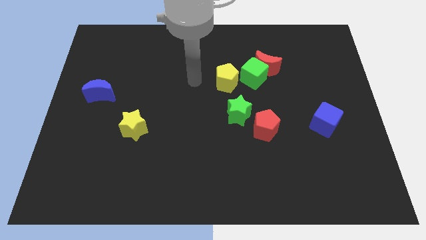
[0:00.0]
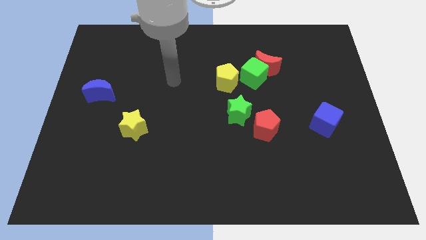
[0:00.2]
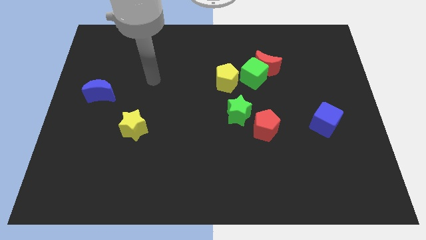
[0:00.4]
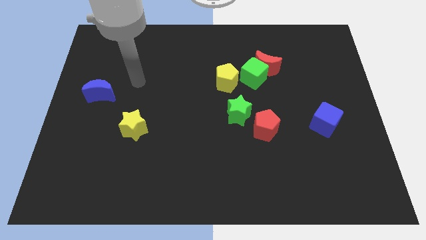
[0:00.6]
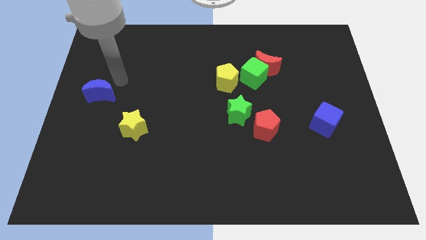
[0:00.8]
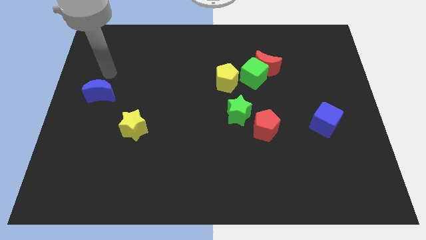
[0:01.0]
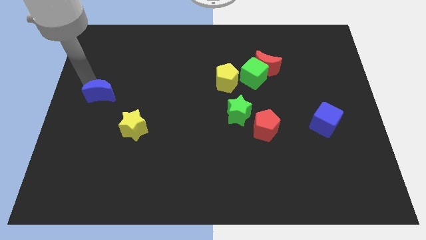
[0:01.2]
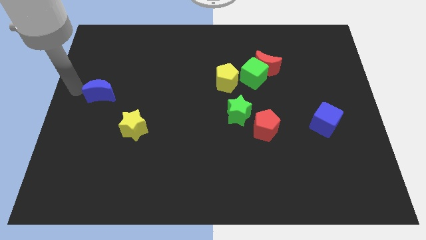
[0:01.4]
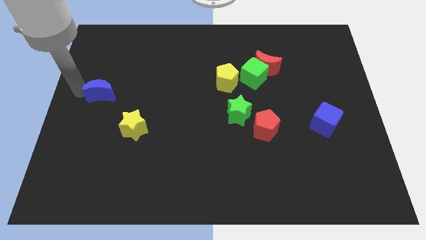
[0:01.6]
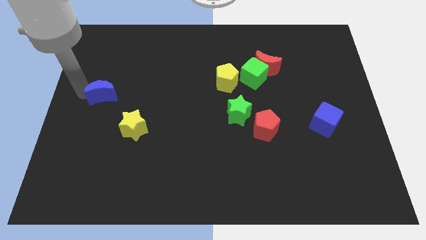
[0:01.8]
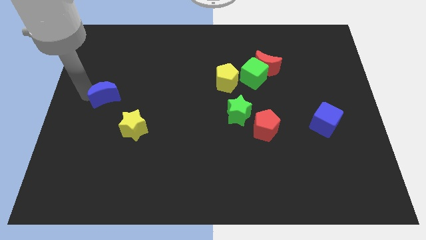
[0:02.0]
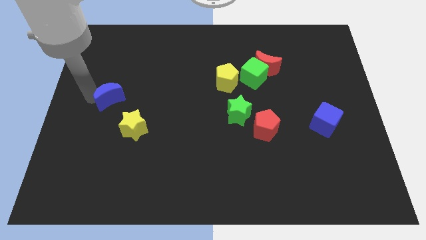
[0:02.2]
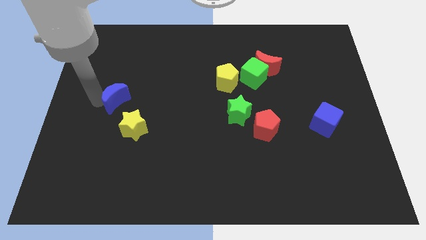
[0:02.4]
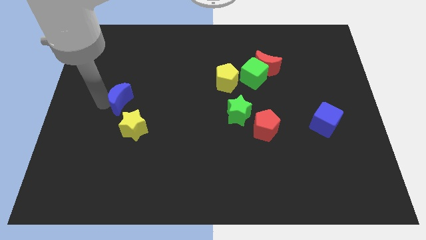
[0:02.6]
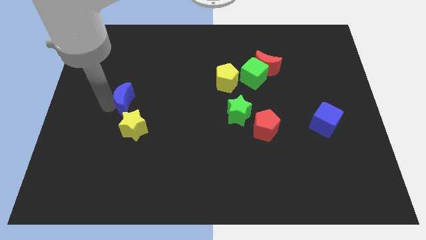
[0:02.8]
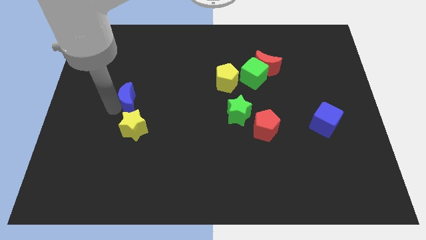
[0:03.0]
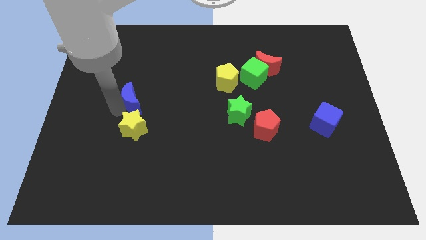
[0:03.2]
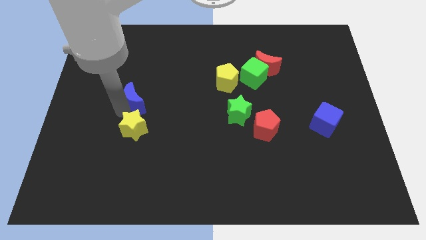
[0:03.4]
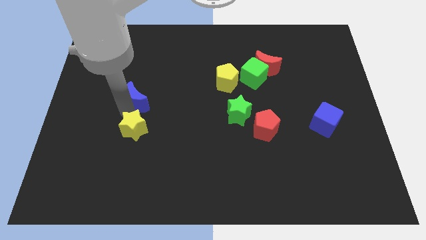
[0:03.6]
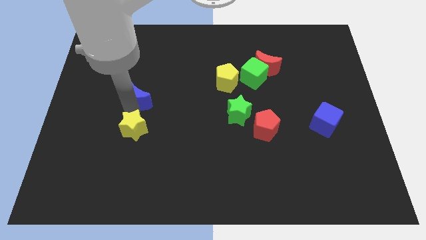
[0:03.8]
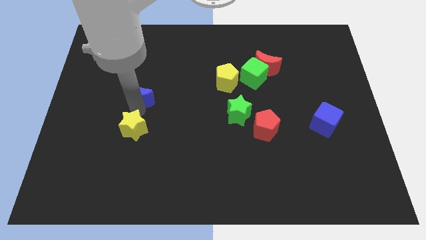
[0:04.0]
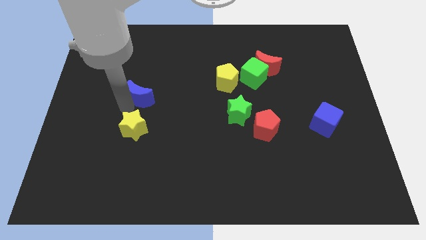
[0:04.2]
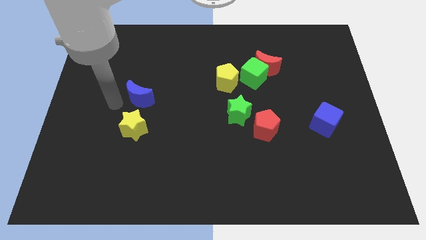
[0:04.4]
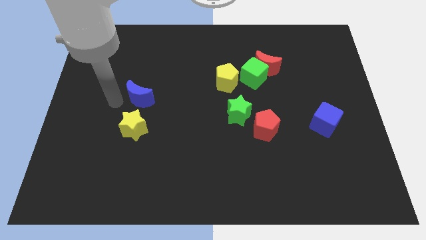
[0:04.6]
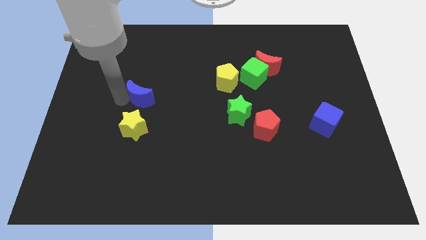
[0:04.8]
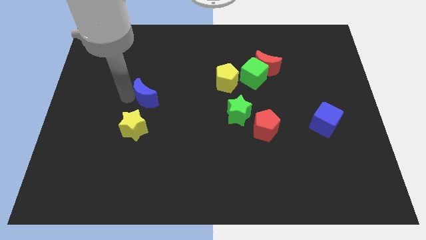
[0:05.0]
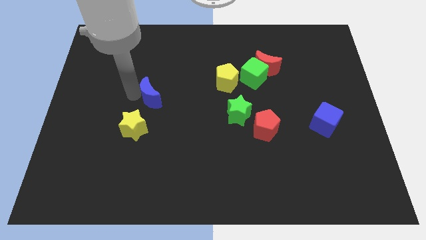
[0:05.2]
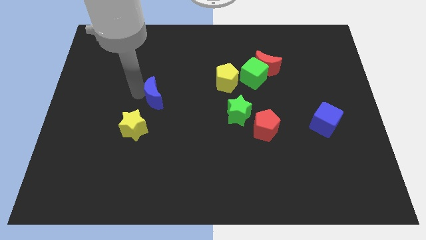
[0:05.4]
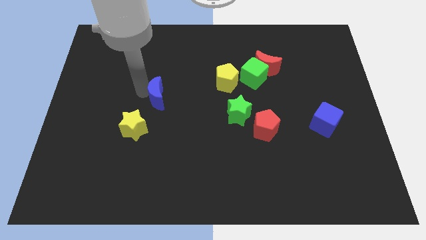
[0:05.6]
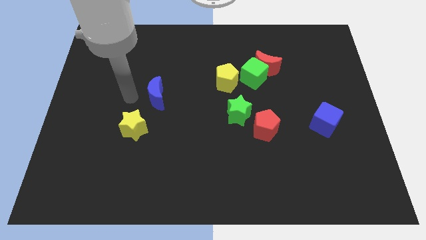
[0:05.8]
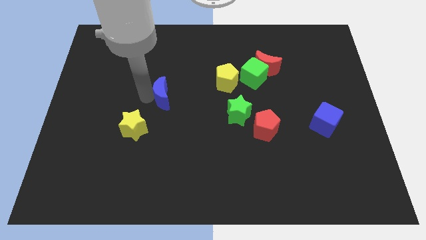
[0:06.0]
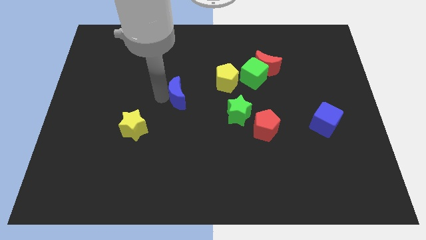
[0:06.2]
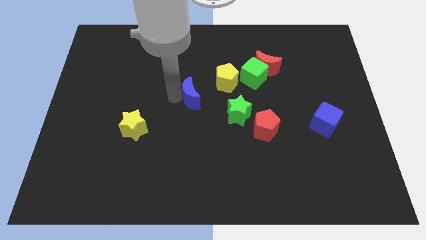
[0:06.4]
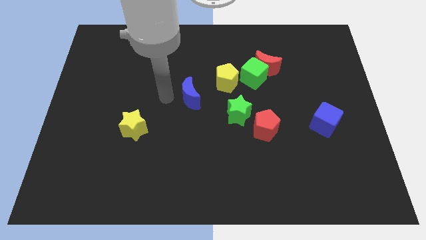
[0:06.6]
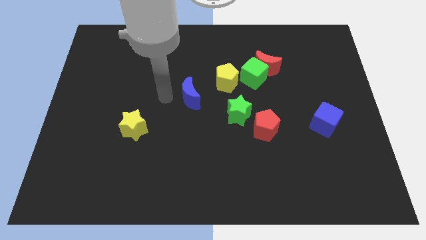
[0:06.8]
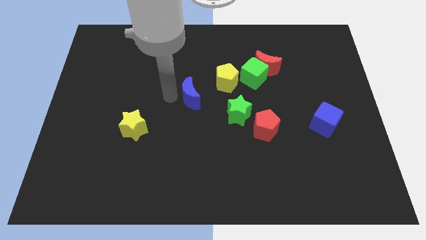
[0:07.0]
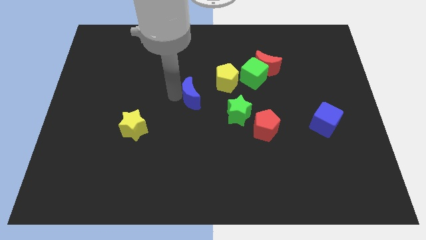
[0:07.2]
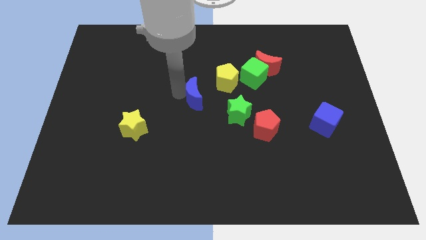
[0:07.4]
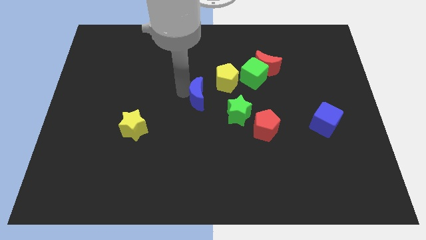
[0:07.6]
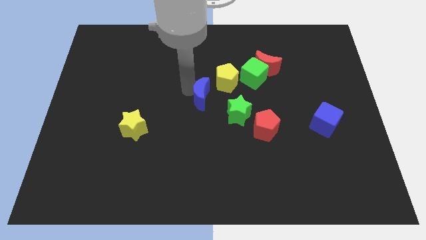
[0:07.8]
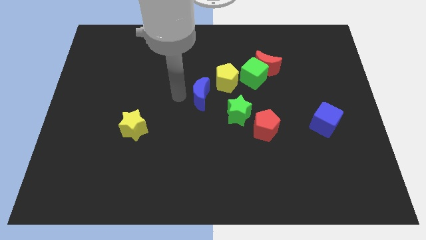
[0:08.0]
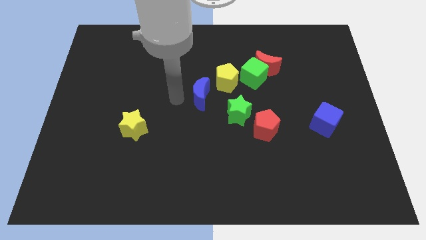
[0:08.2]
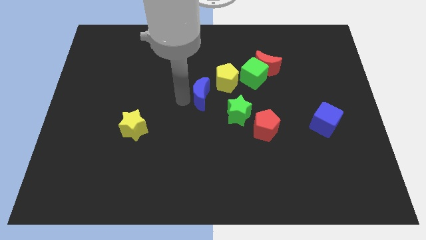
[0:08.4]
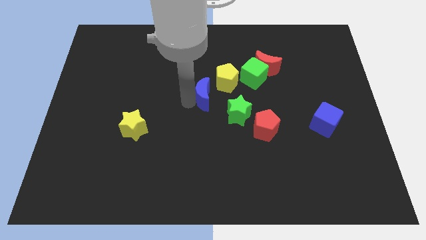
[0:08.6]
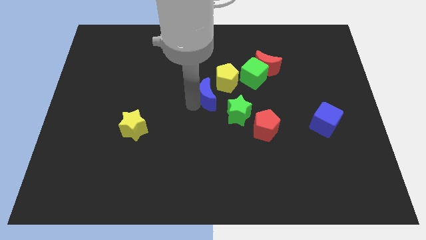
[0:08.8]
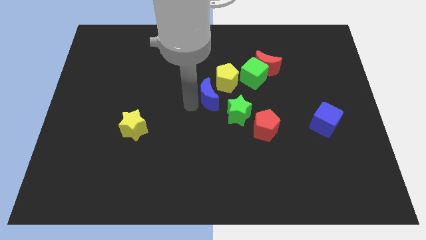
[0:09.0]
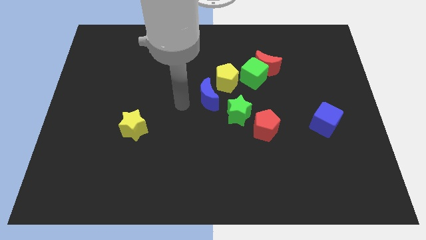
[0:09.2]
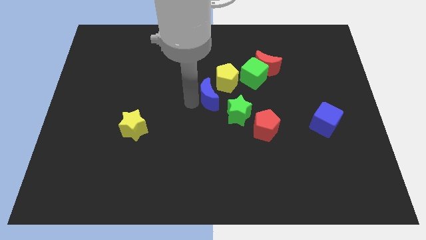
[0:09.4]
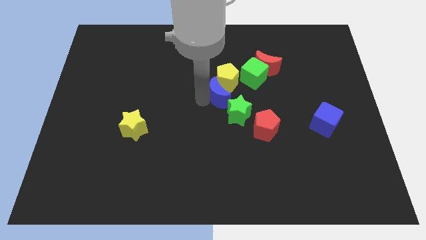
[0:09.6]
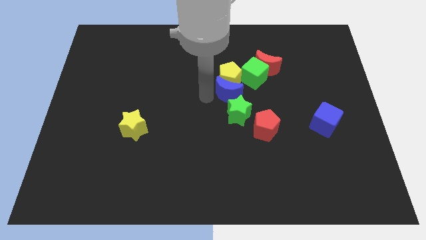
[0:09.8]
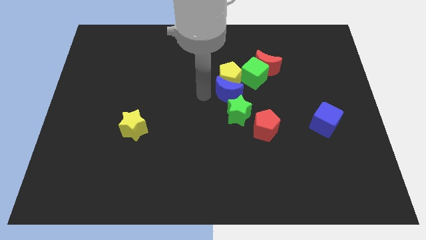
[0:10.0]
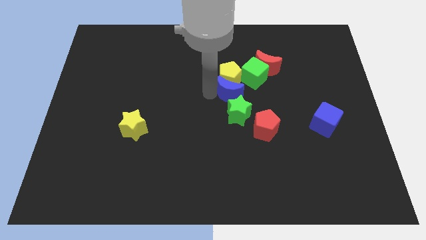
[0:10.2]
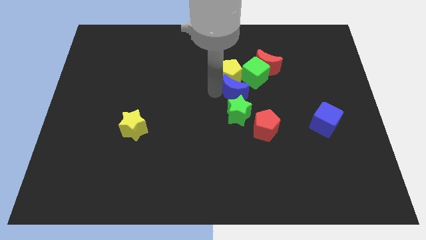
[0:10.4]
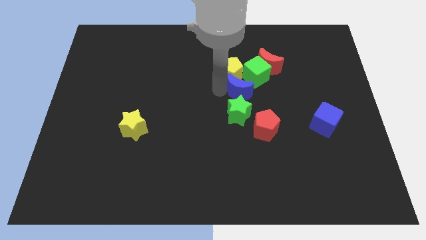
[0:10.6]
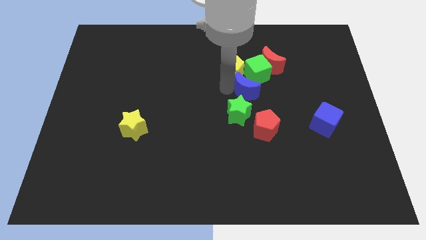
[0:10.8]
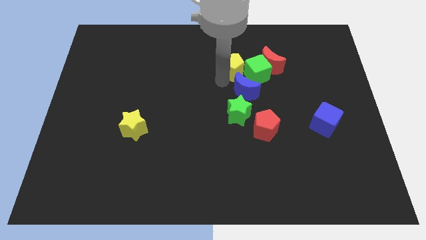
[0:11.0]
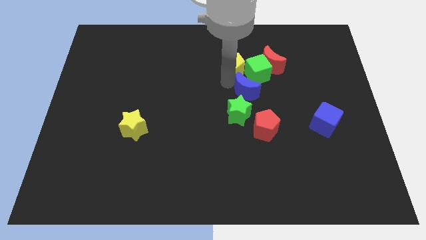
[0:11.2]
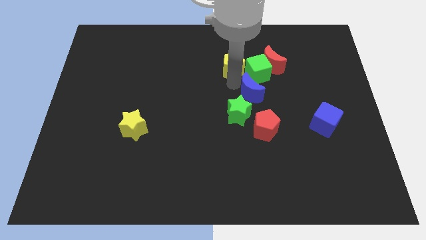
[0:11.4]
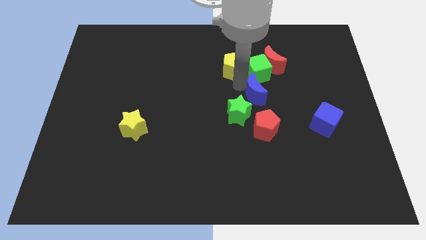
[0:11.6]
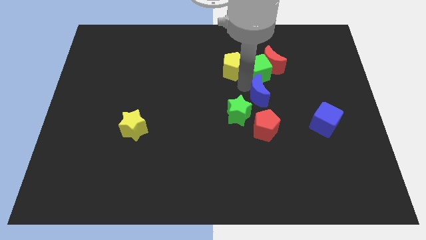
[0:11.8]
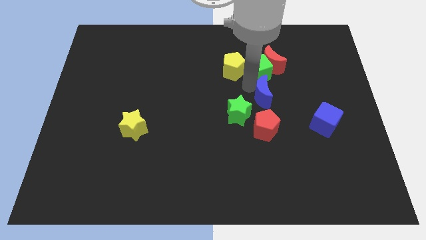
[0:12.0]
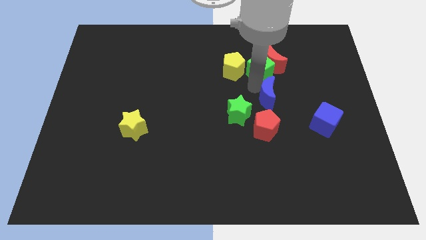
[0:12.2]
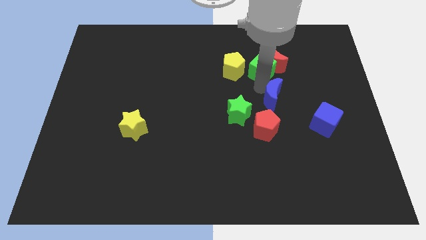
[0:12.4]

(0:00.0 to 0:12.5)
move the blue moon diagonally up and to the right of the red pentagon

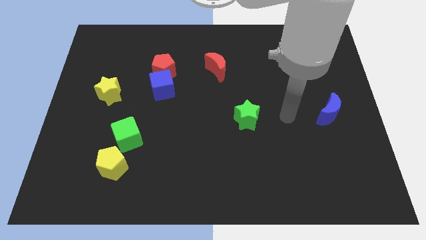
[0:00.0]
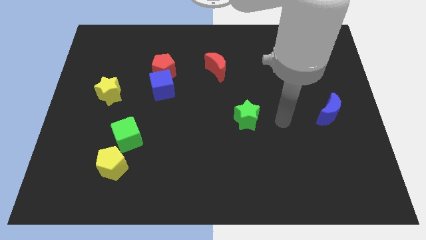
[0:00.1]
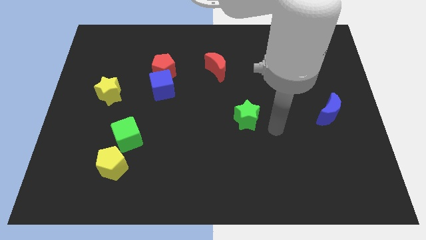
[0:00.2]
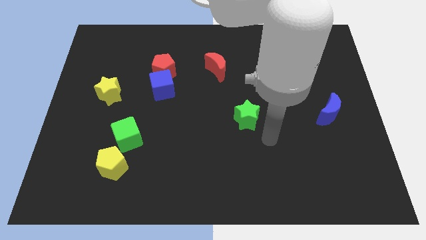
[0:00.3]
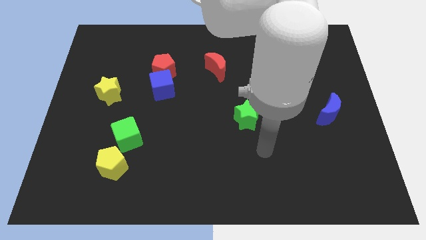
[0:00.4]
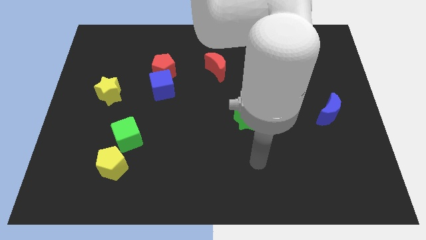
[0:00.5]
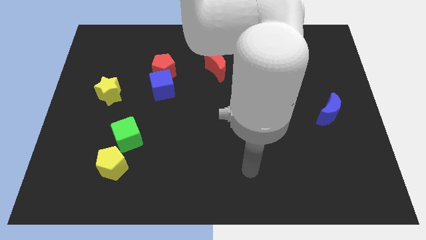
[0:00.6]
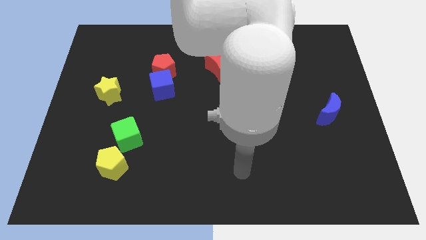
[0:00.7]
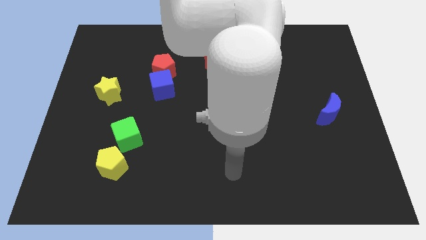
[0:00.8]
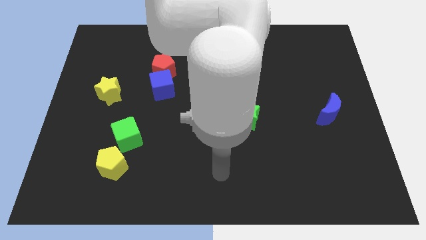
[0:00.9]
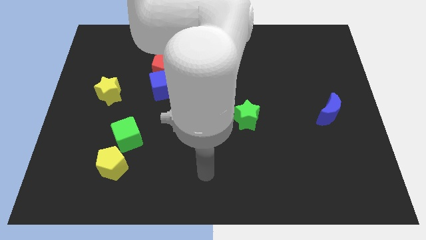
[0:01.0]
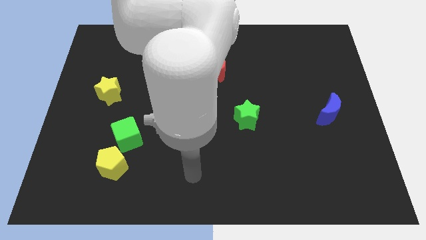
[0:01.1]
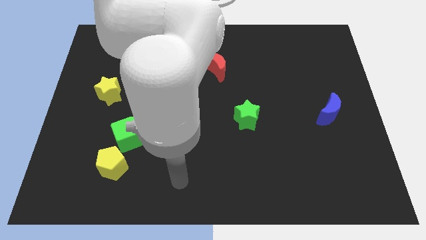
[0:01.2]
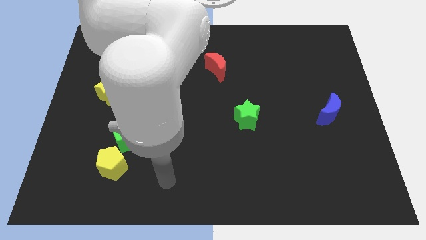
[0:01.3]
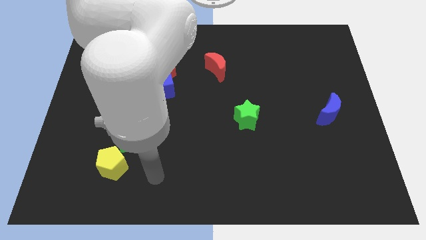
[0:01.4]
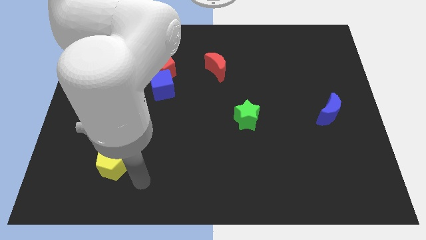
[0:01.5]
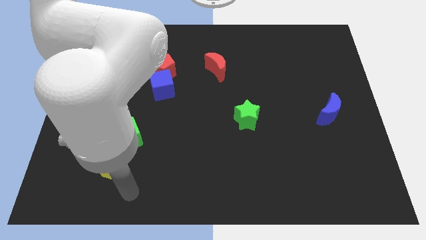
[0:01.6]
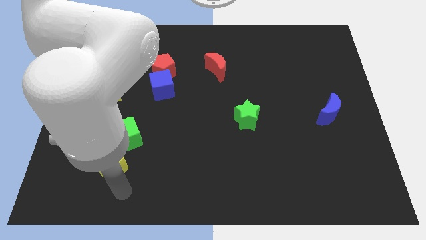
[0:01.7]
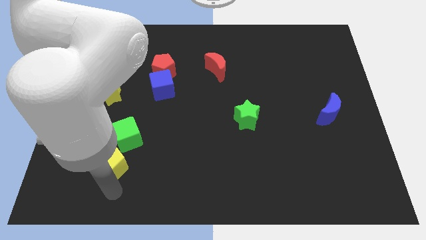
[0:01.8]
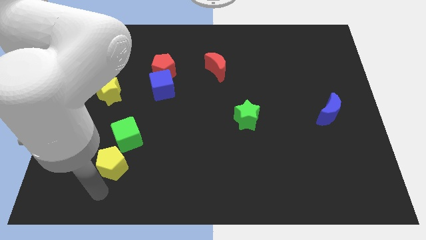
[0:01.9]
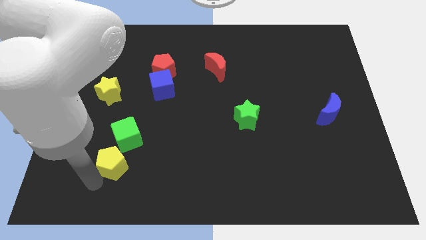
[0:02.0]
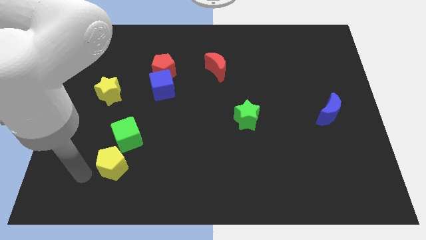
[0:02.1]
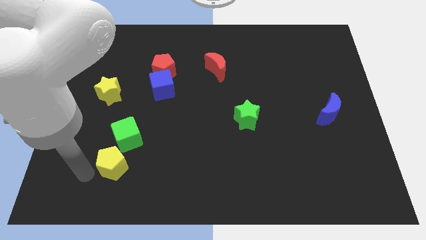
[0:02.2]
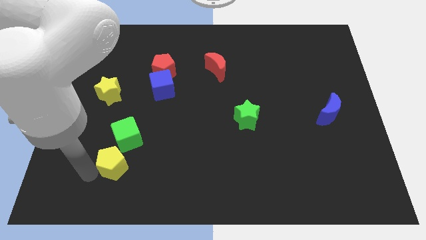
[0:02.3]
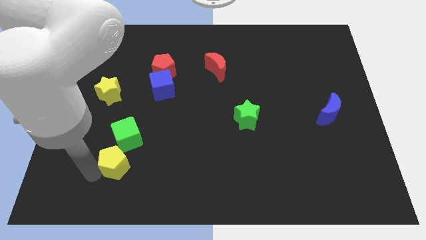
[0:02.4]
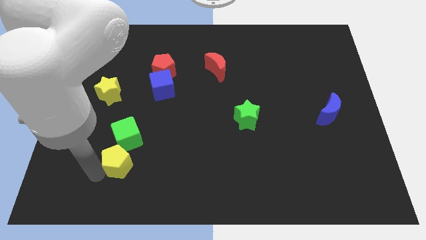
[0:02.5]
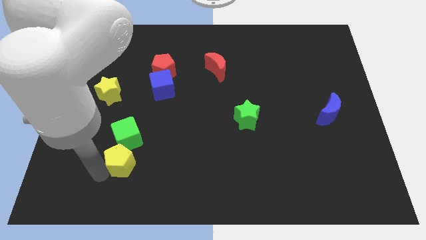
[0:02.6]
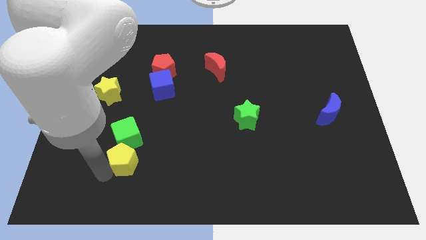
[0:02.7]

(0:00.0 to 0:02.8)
slide the yellow pentagon to the bottom right of the green cube
